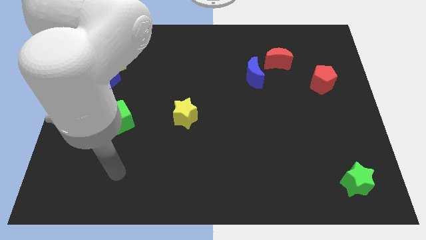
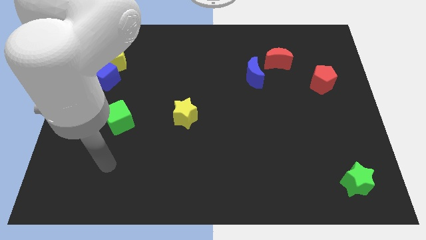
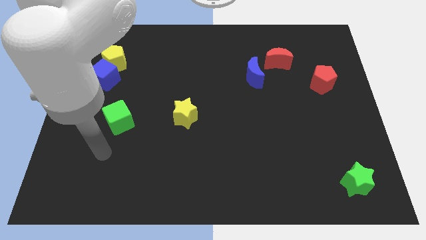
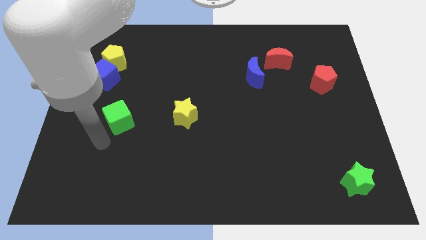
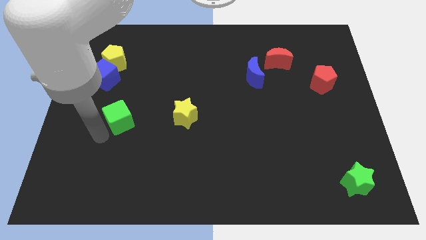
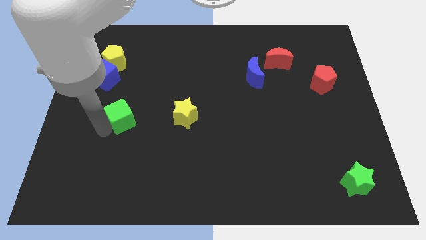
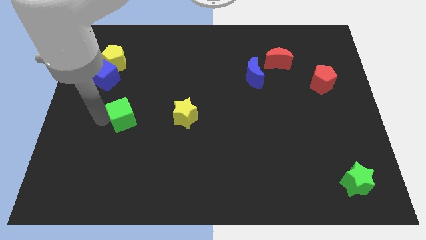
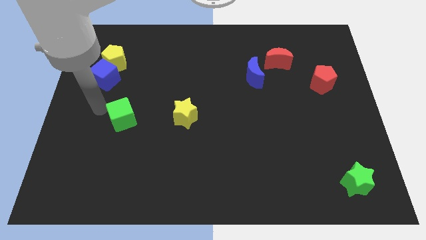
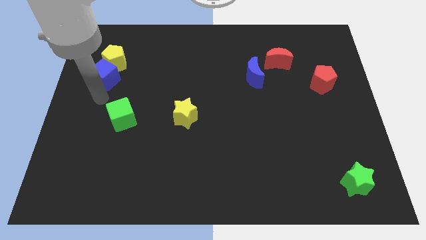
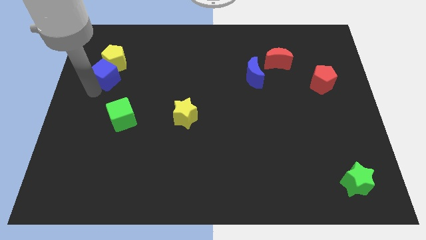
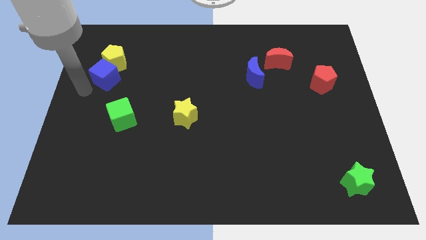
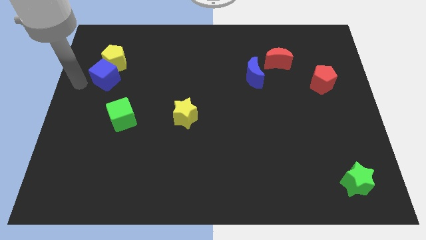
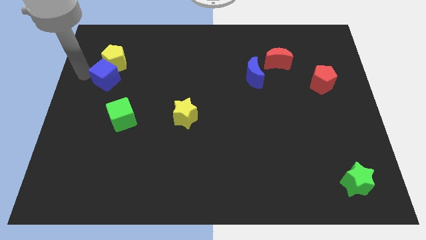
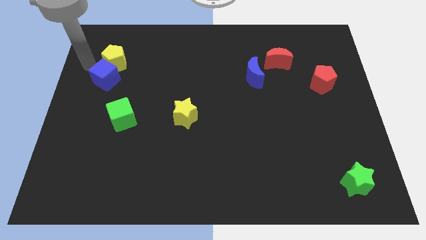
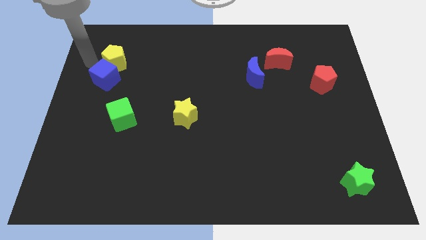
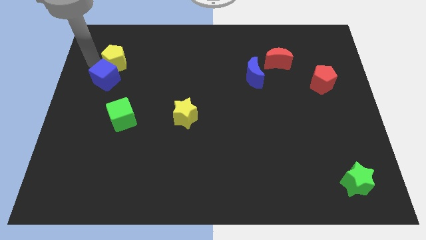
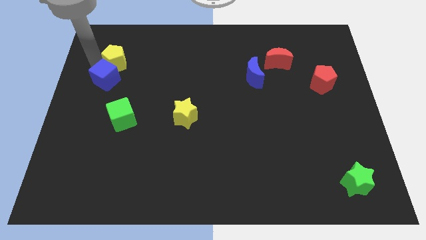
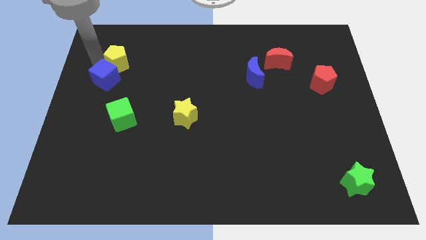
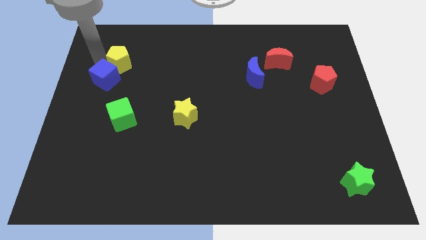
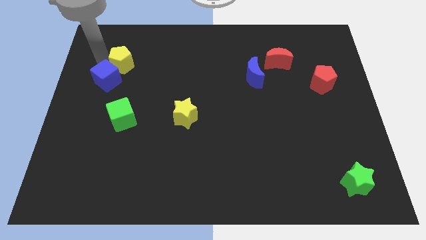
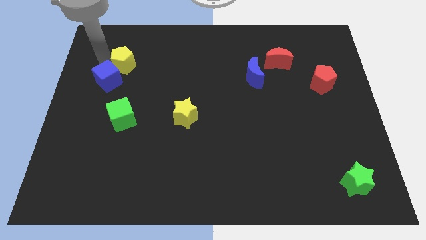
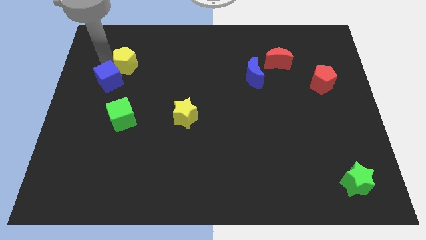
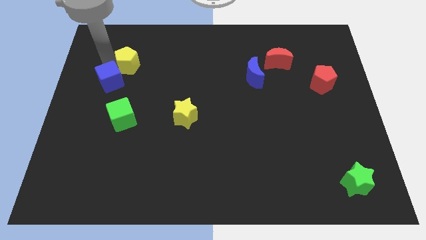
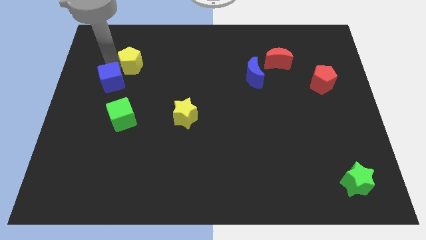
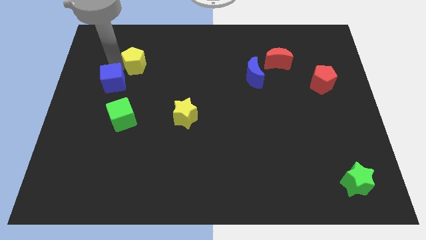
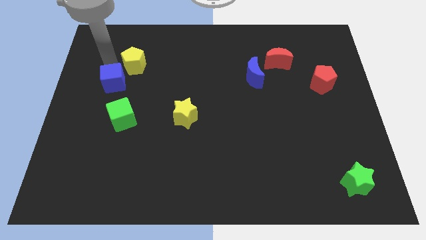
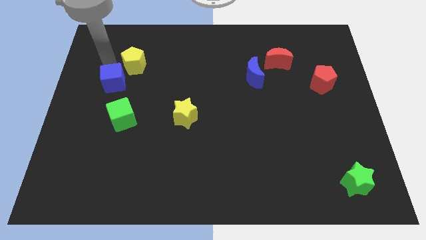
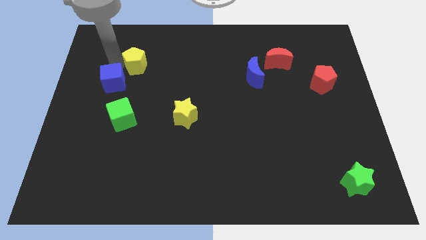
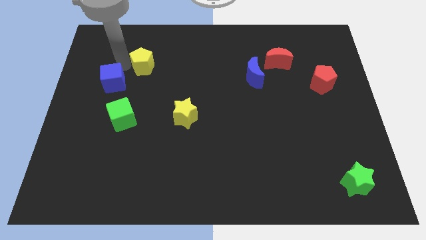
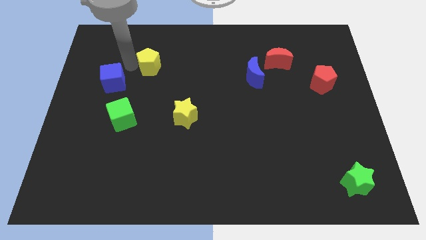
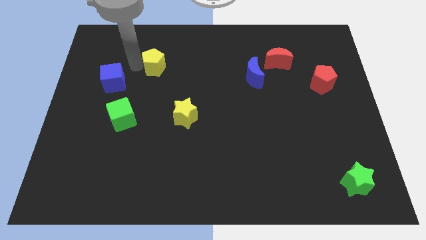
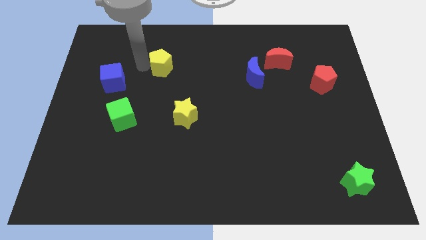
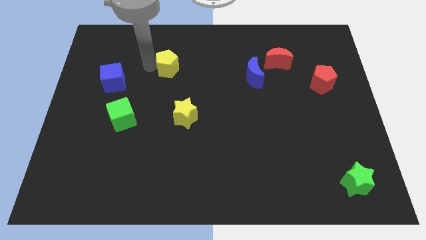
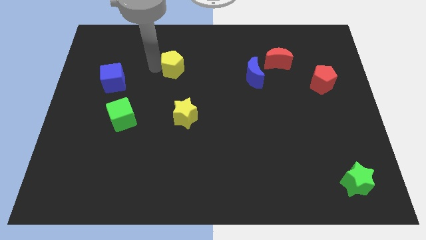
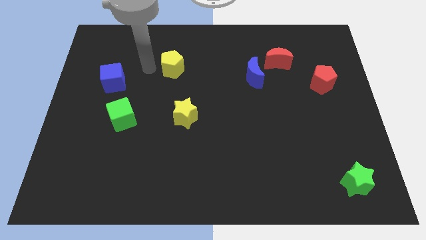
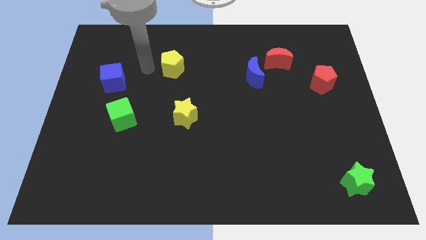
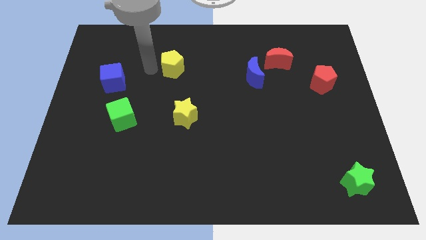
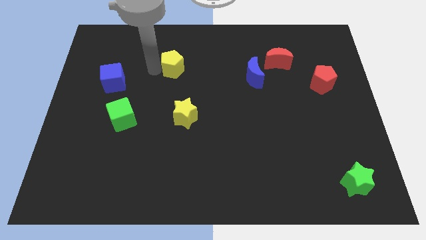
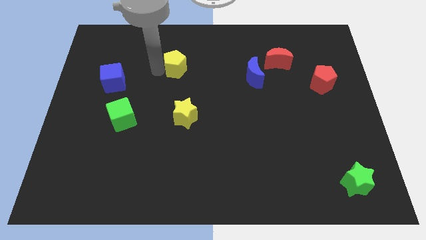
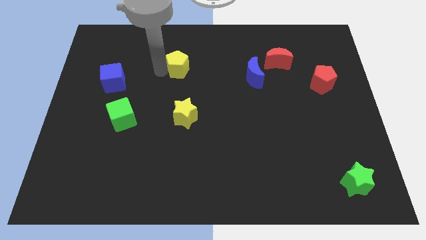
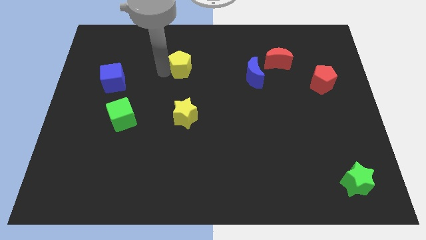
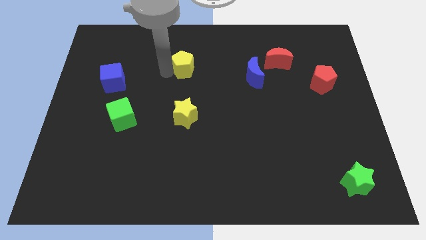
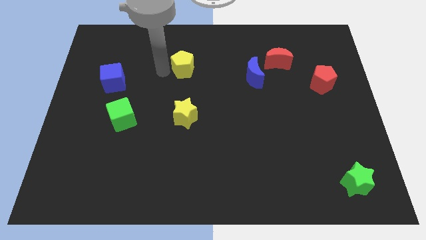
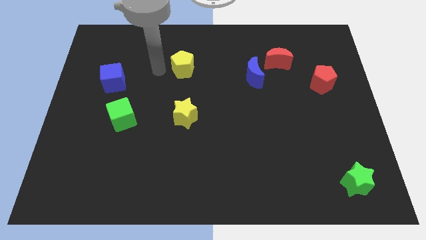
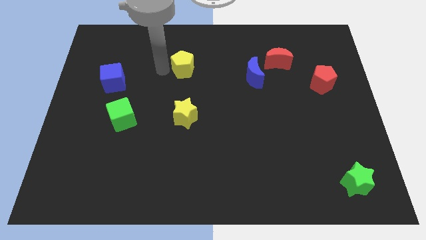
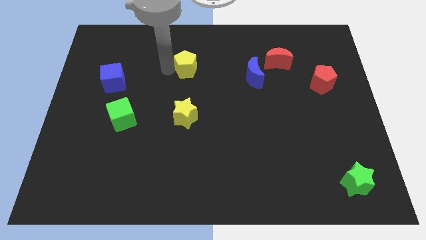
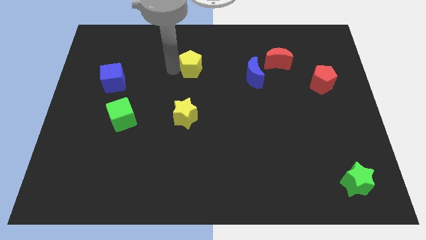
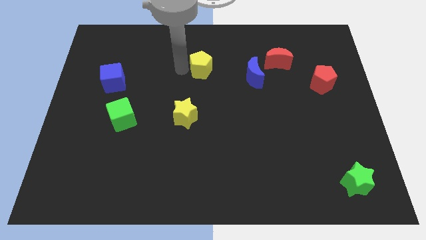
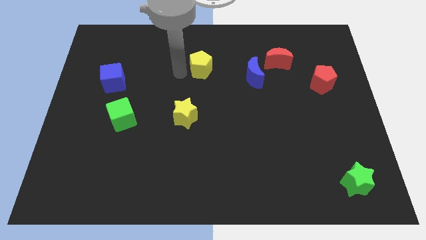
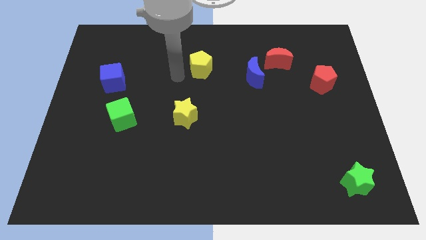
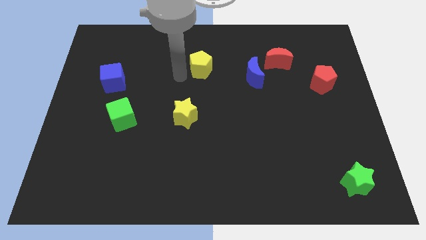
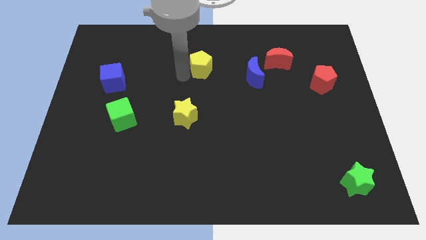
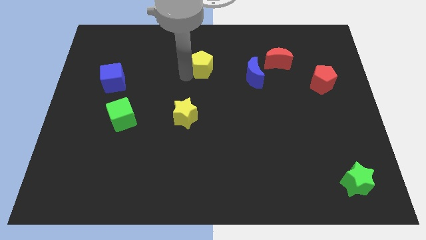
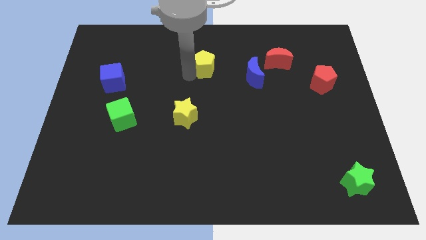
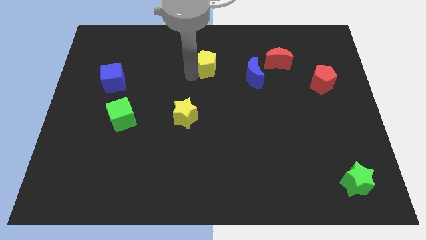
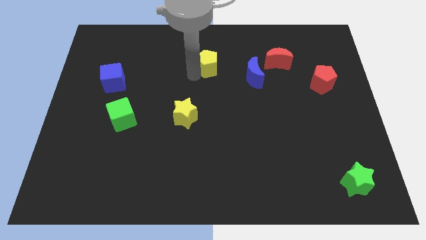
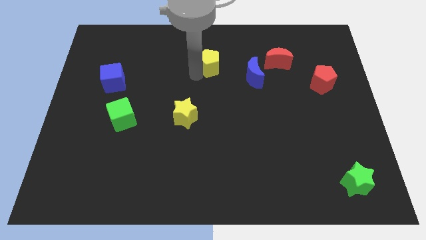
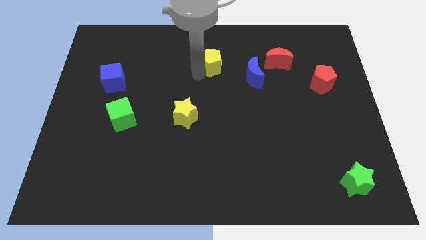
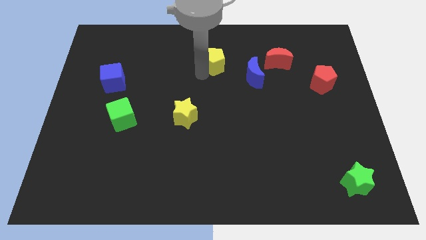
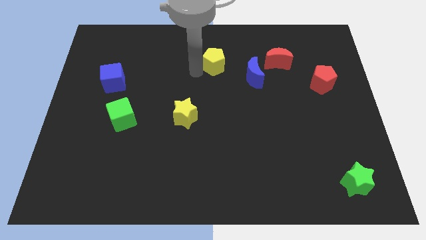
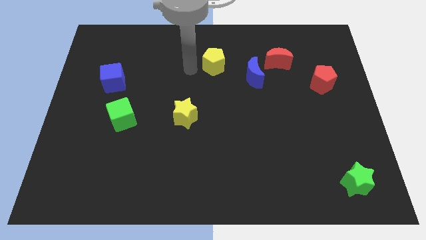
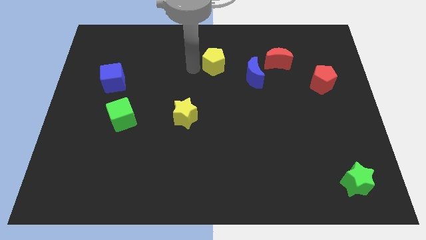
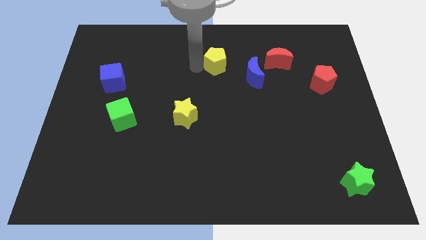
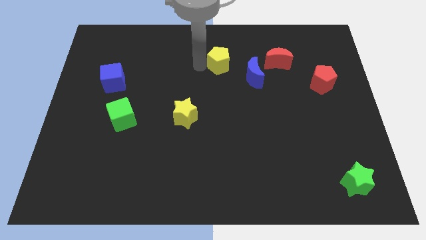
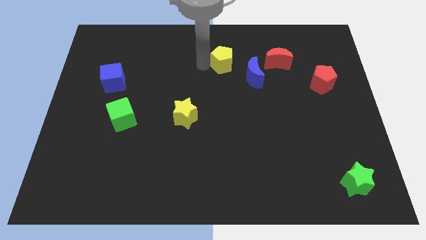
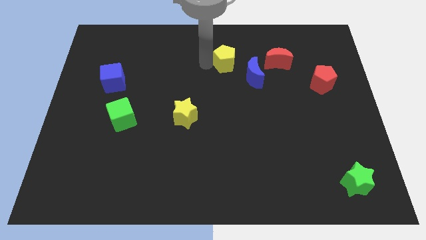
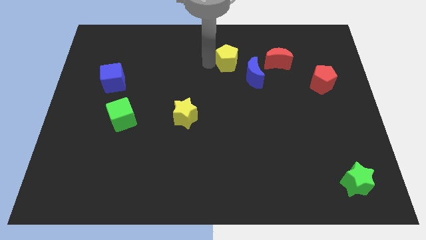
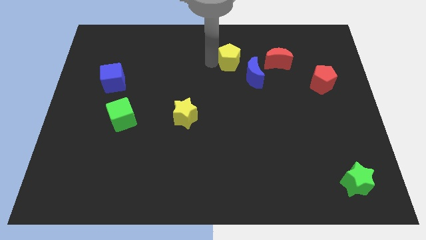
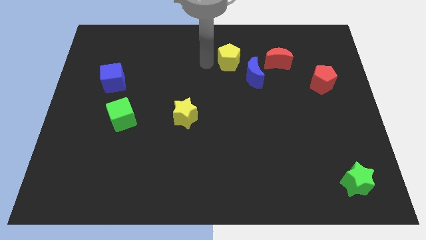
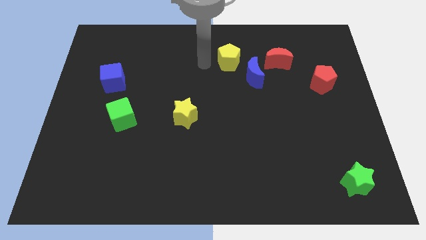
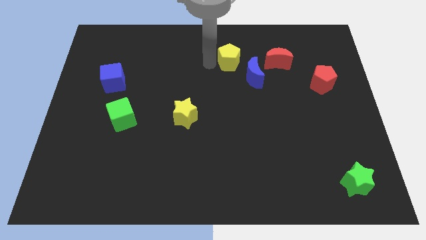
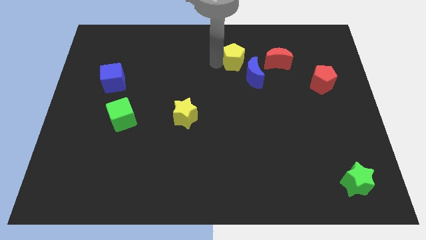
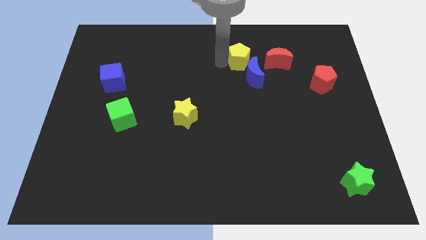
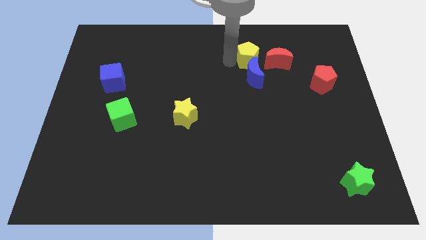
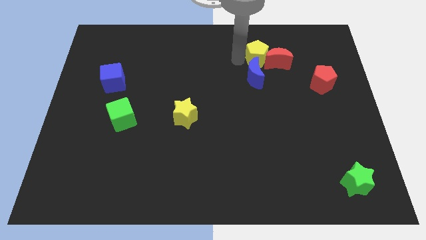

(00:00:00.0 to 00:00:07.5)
push the yellow pentagon towards the red moon
